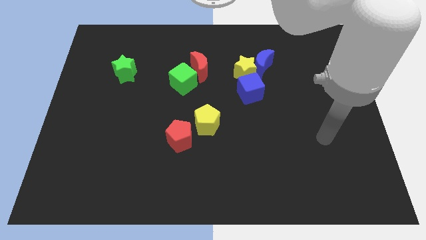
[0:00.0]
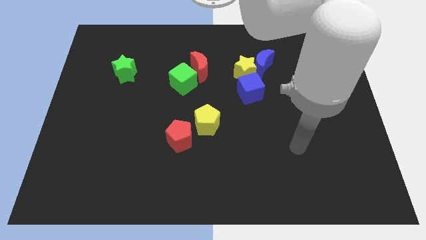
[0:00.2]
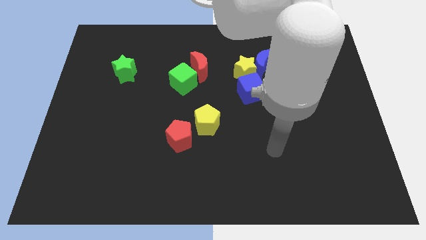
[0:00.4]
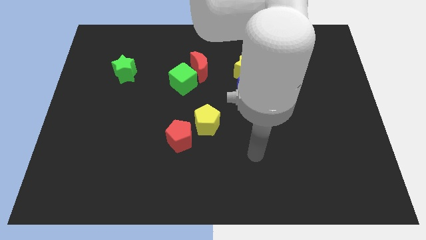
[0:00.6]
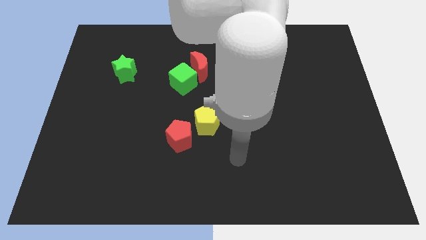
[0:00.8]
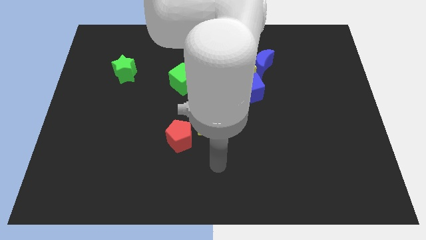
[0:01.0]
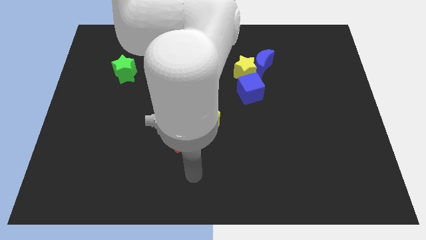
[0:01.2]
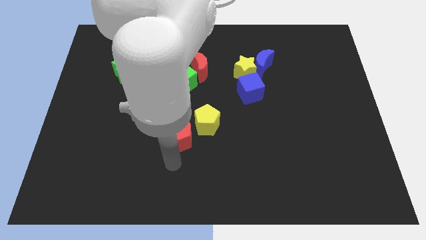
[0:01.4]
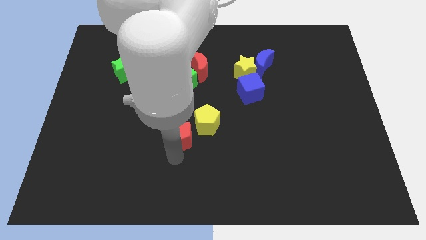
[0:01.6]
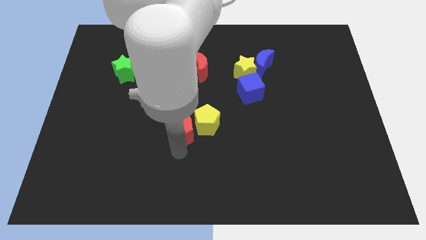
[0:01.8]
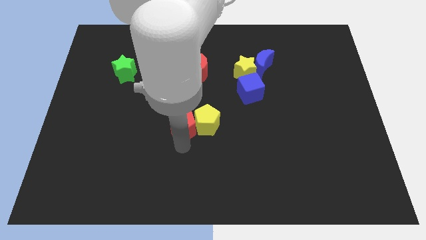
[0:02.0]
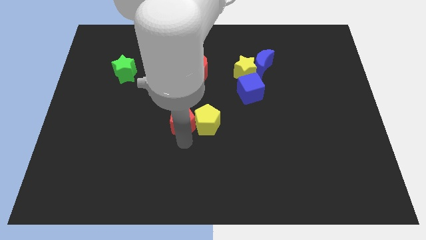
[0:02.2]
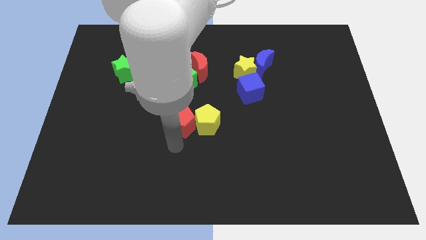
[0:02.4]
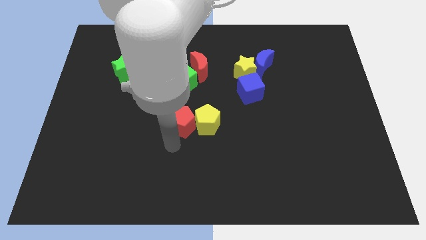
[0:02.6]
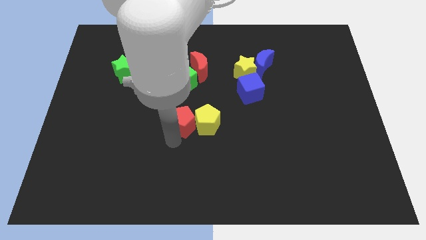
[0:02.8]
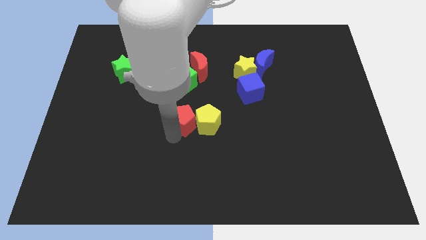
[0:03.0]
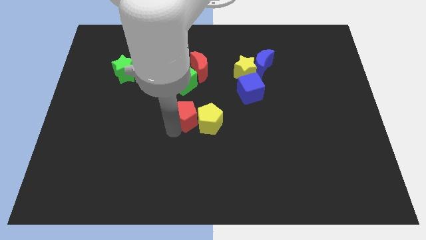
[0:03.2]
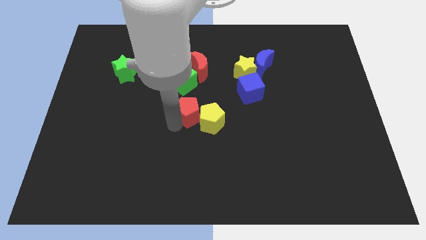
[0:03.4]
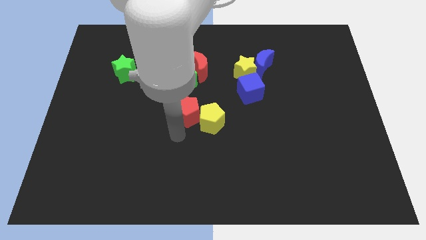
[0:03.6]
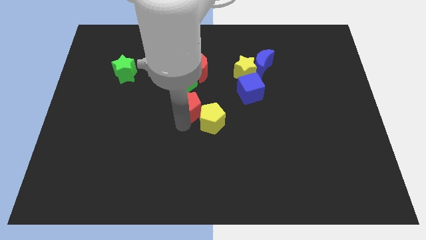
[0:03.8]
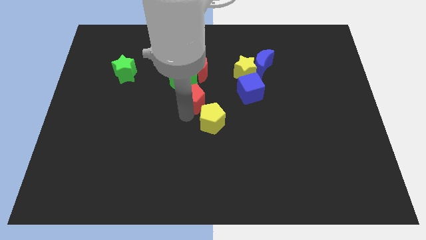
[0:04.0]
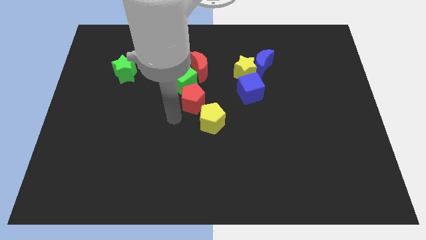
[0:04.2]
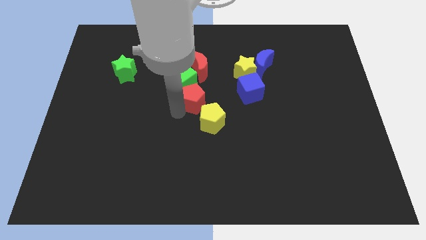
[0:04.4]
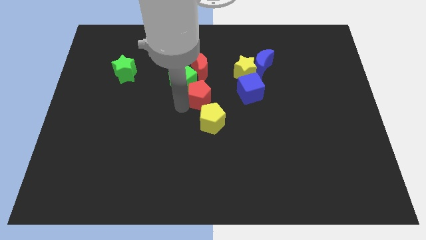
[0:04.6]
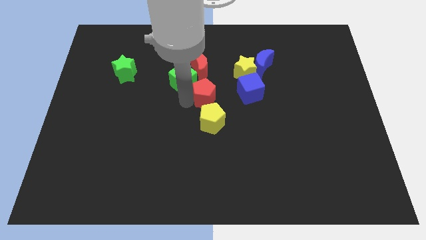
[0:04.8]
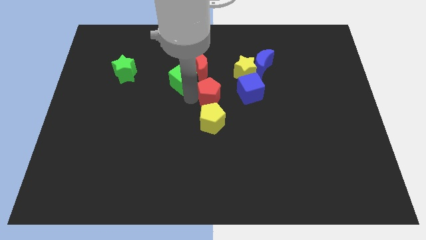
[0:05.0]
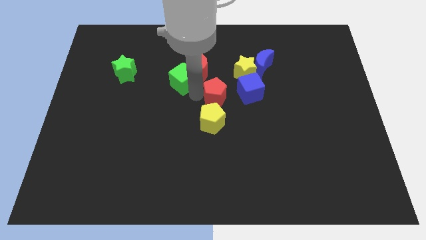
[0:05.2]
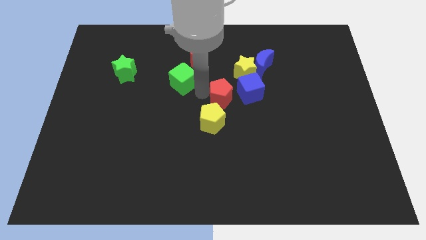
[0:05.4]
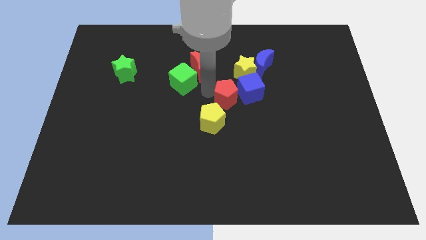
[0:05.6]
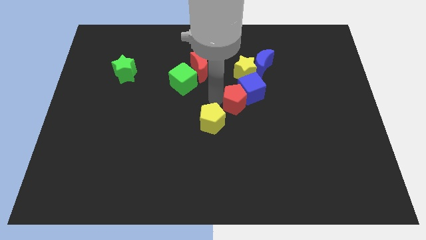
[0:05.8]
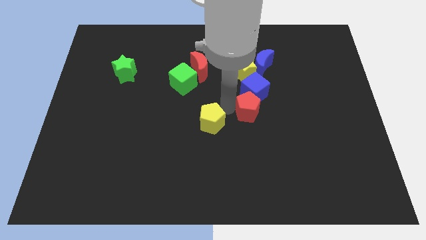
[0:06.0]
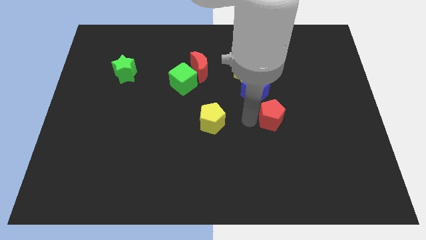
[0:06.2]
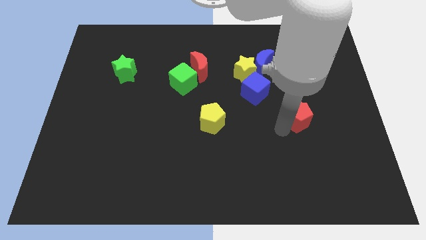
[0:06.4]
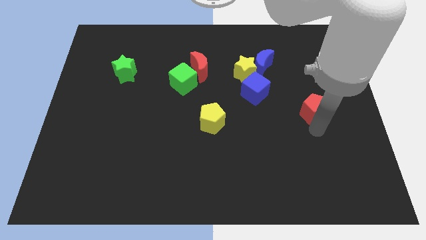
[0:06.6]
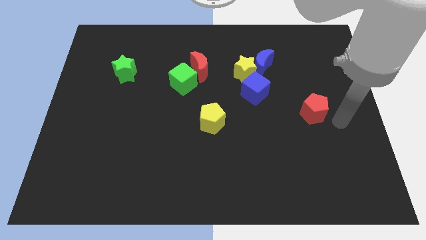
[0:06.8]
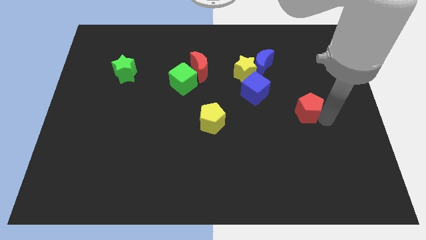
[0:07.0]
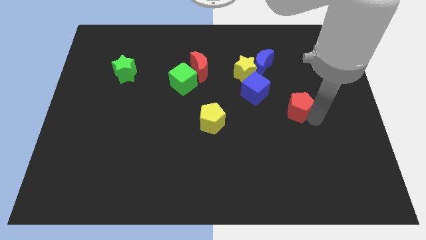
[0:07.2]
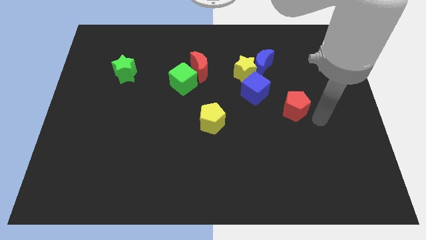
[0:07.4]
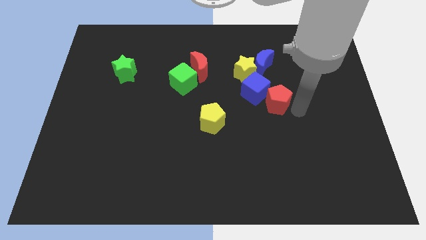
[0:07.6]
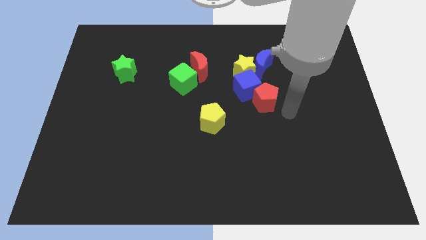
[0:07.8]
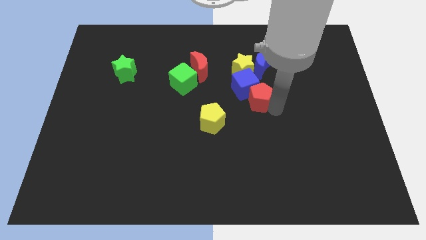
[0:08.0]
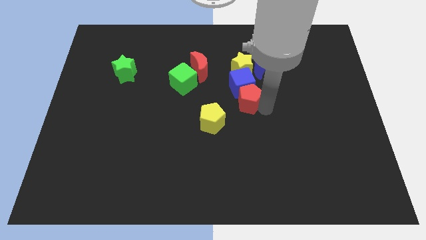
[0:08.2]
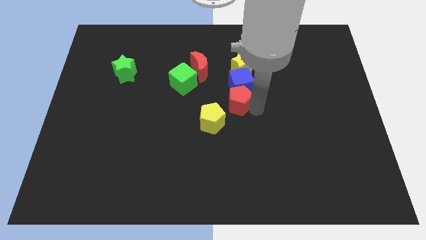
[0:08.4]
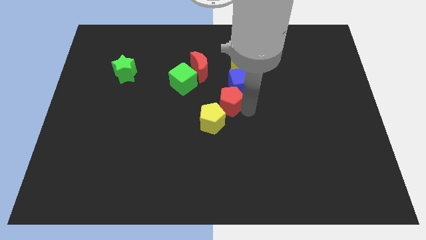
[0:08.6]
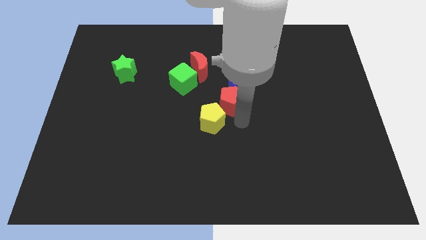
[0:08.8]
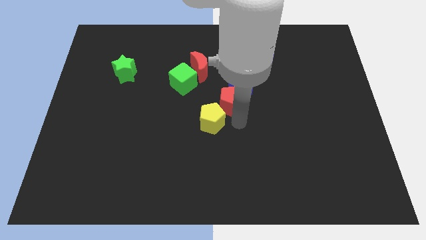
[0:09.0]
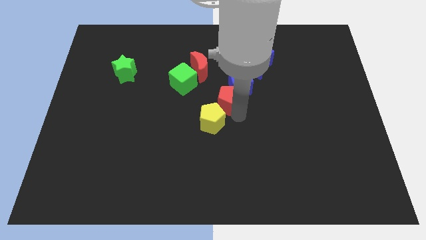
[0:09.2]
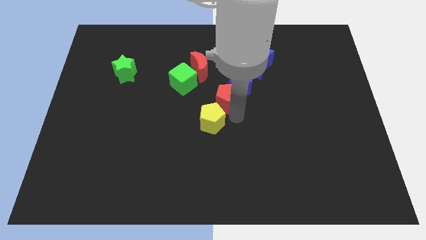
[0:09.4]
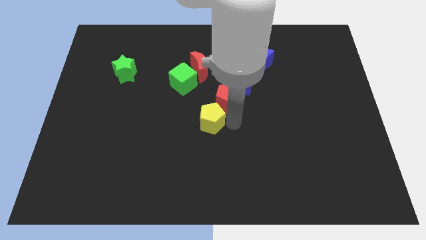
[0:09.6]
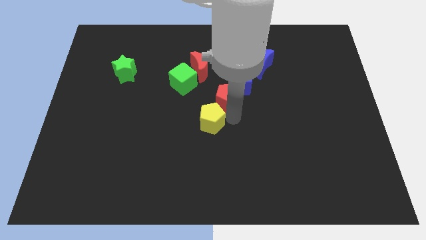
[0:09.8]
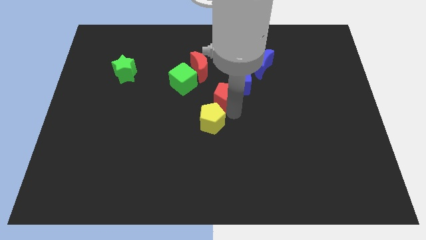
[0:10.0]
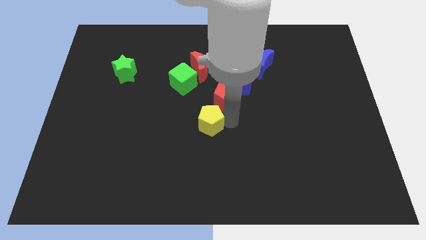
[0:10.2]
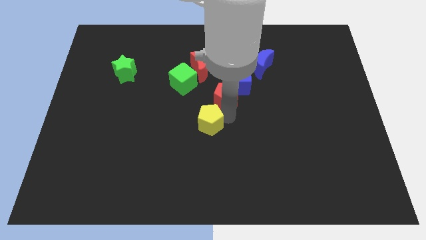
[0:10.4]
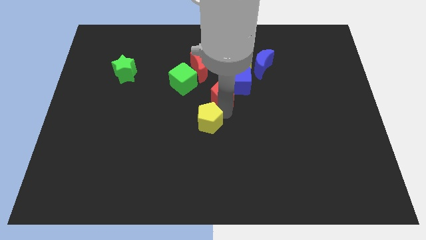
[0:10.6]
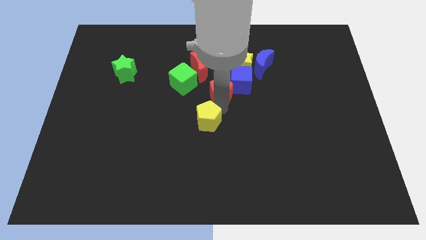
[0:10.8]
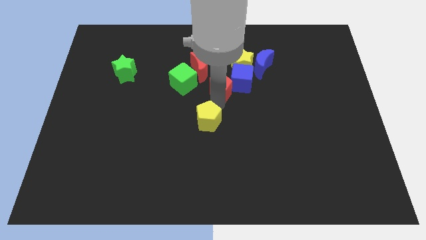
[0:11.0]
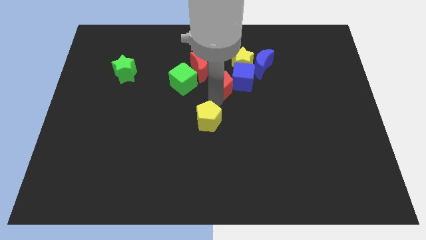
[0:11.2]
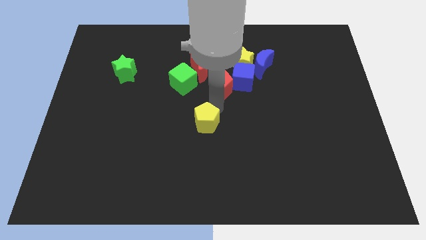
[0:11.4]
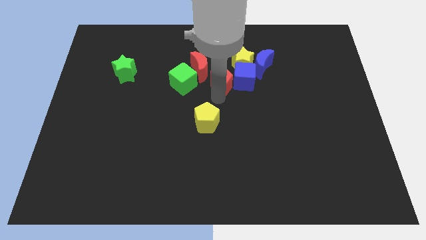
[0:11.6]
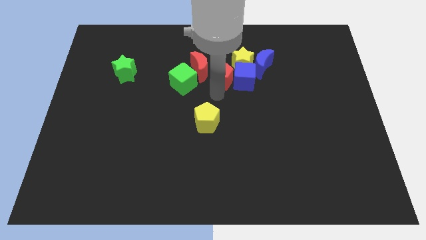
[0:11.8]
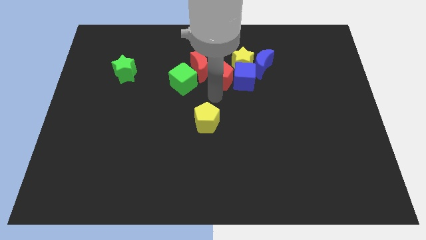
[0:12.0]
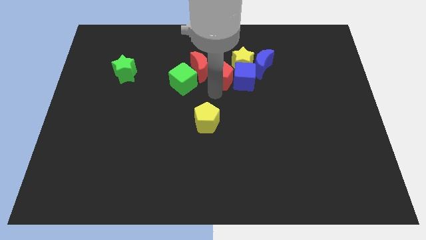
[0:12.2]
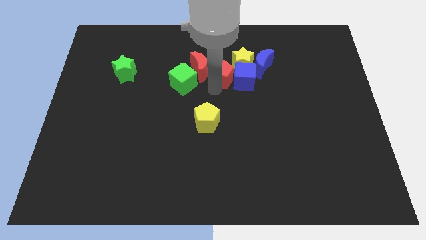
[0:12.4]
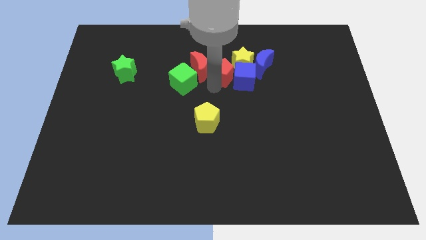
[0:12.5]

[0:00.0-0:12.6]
push the red pentagon diagonally up and to the right of the green cube
